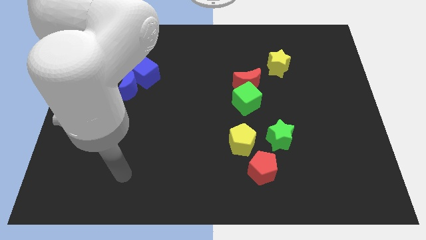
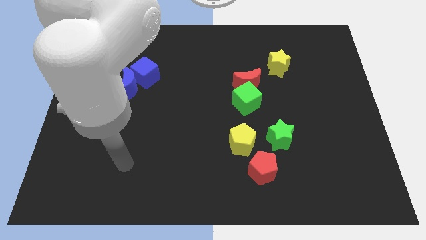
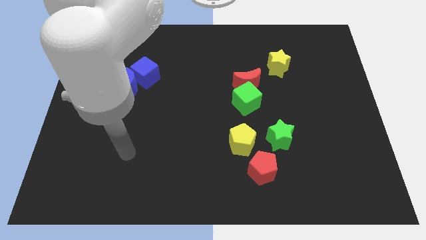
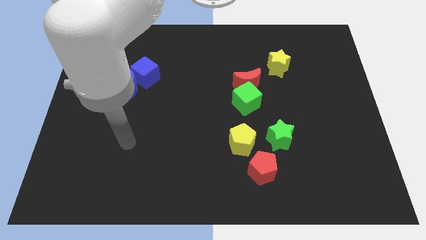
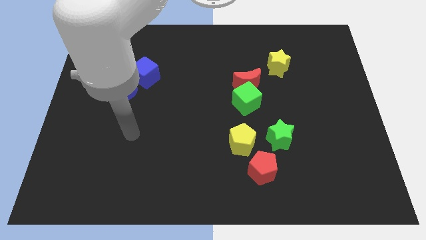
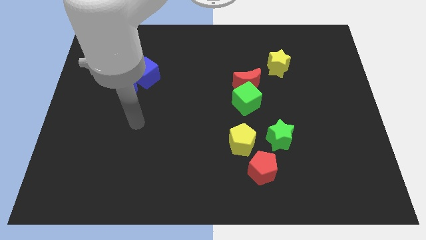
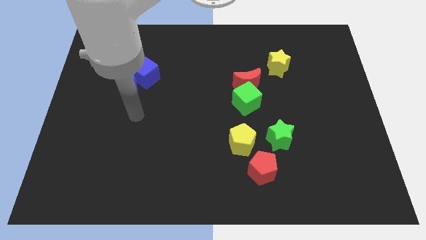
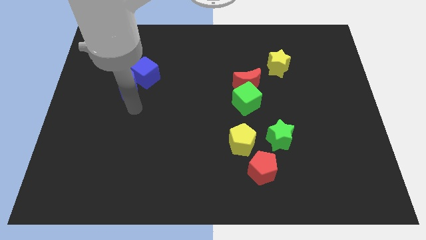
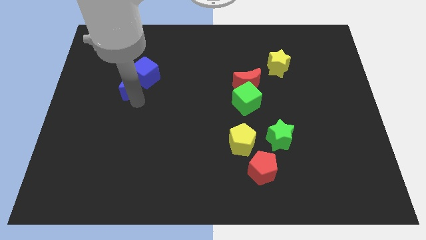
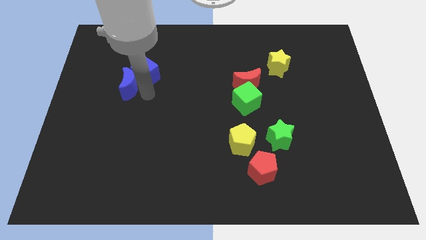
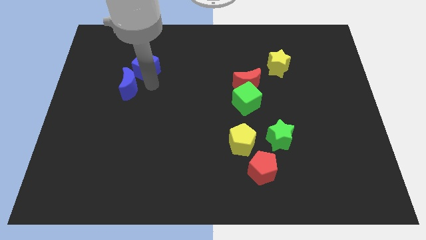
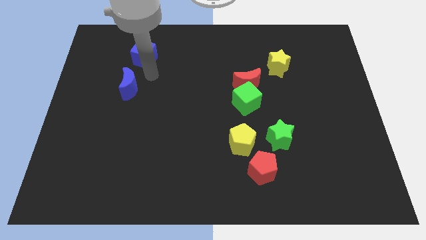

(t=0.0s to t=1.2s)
separate the blue moon from the blue cube

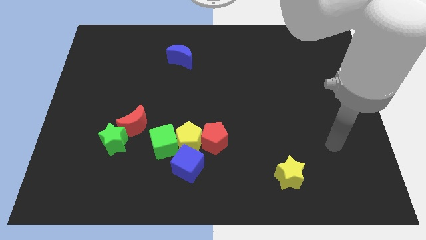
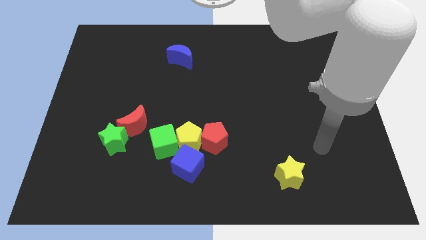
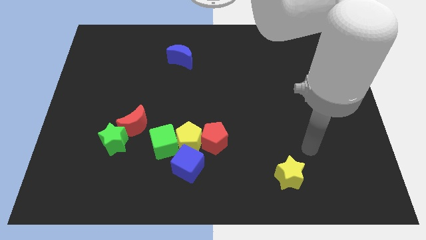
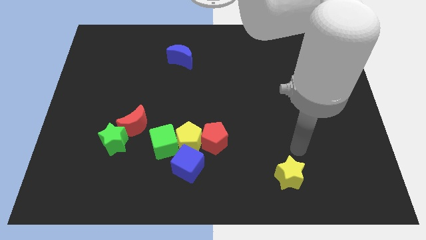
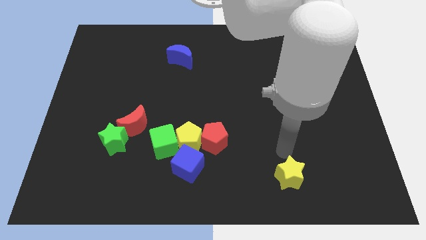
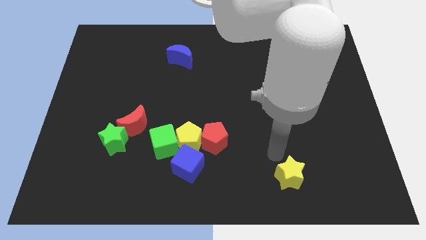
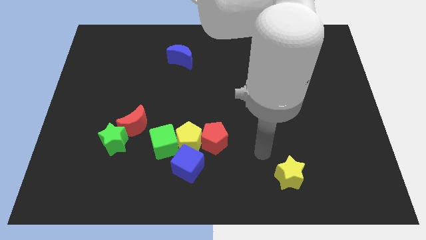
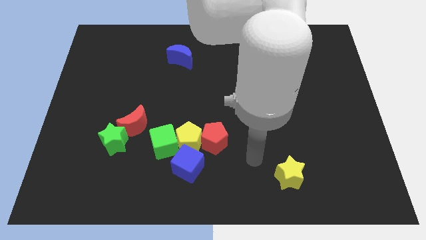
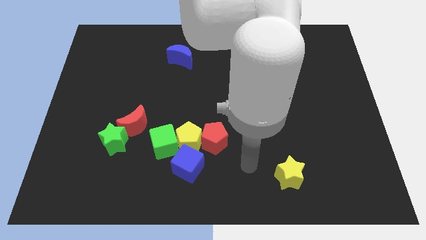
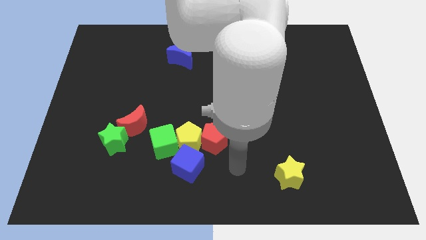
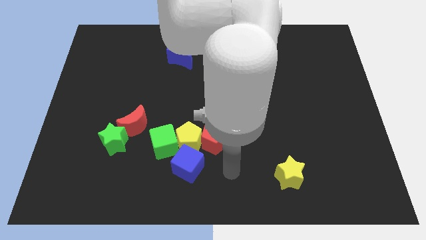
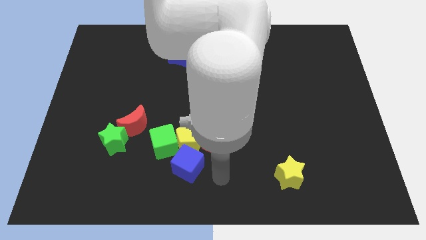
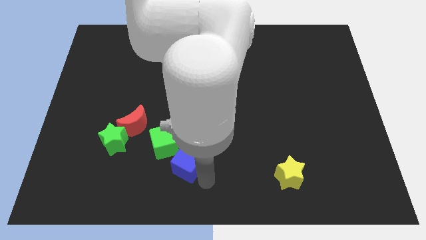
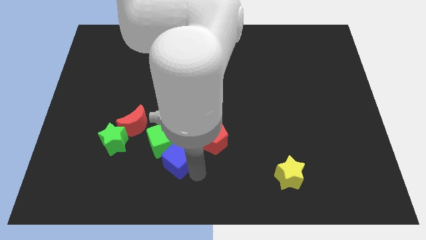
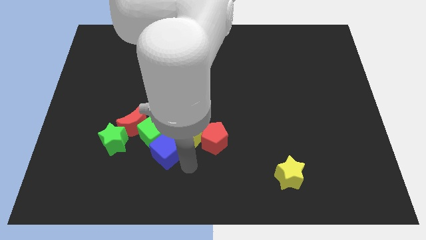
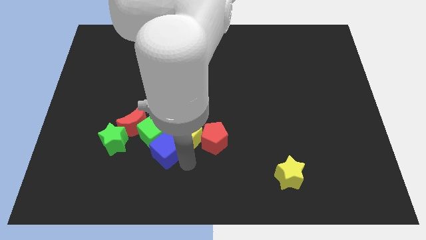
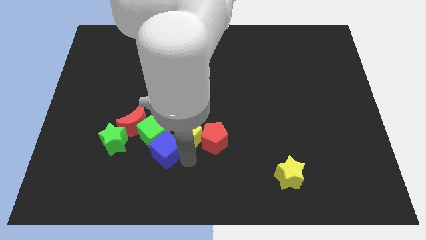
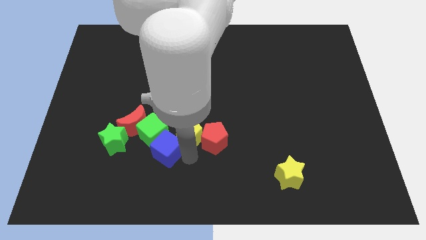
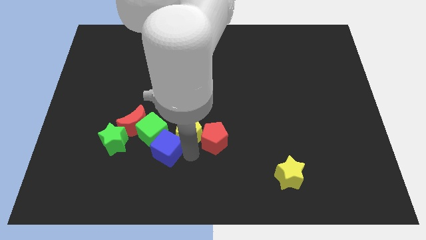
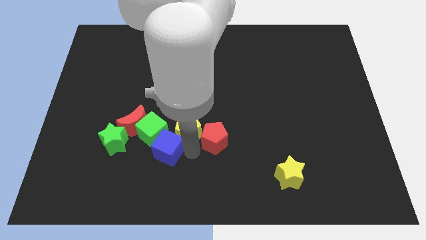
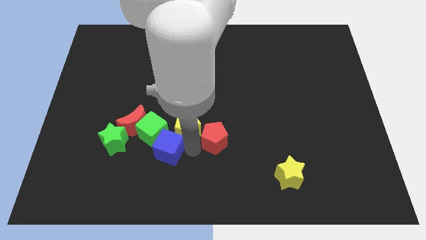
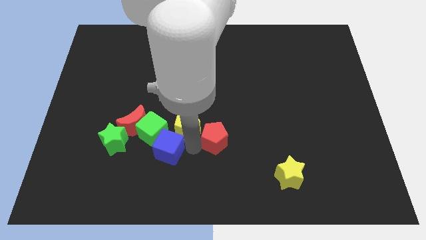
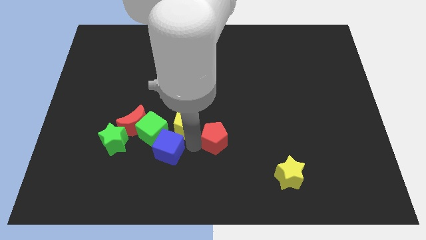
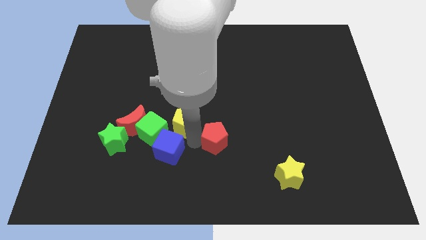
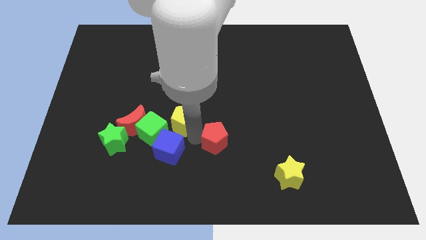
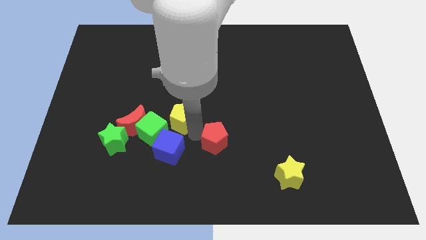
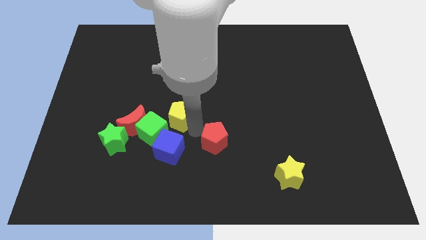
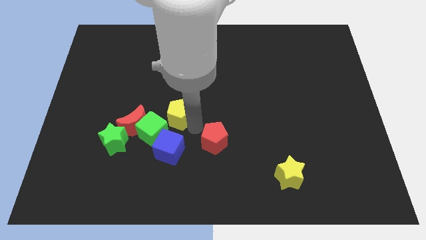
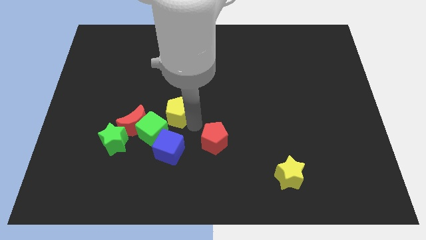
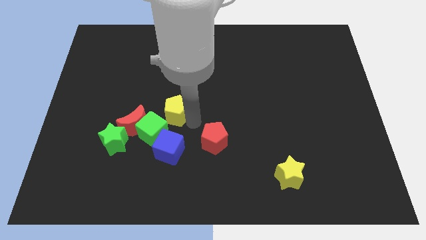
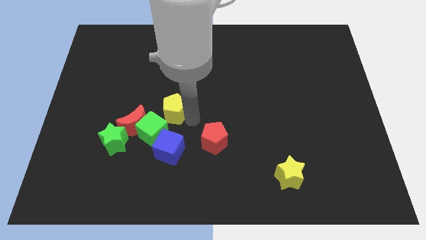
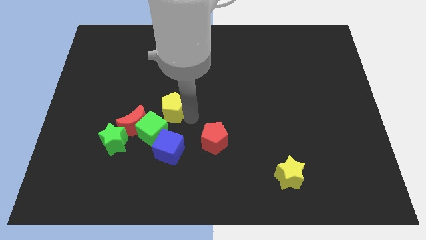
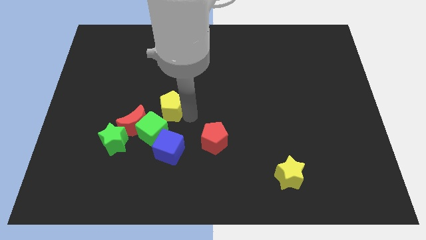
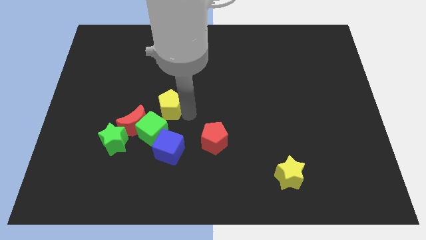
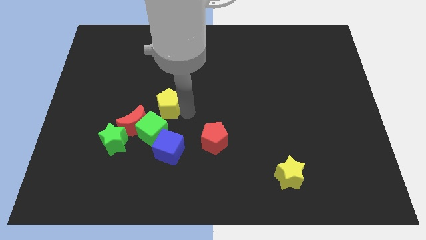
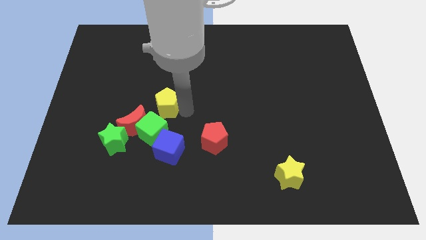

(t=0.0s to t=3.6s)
move the yellow pentagon away from the red pentagon, green cube, and blue cube

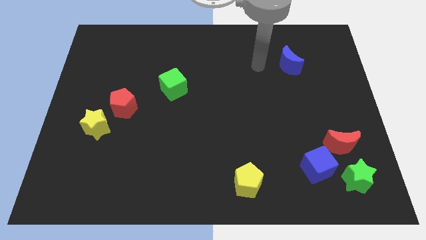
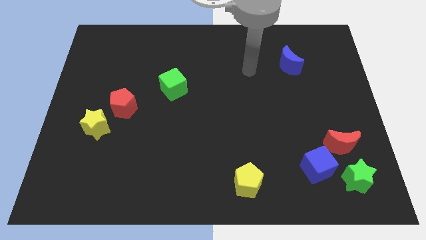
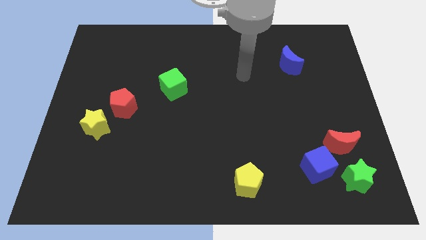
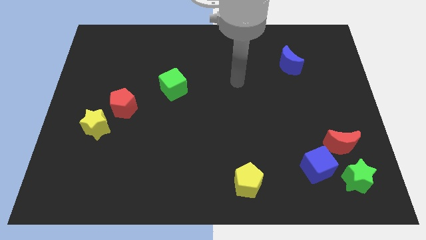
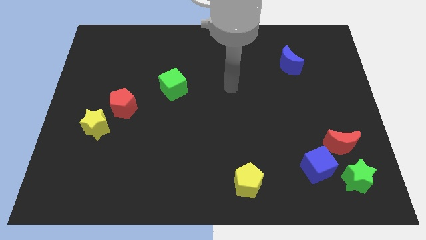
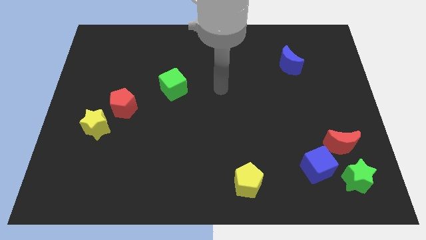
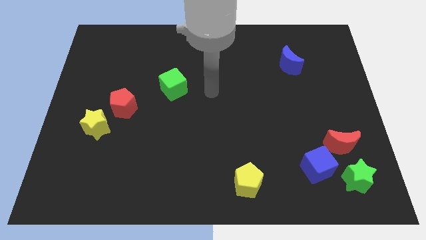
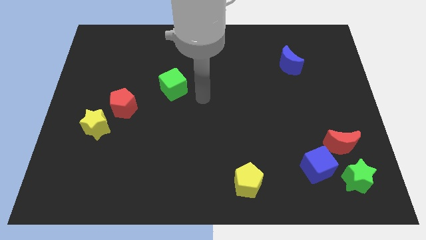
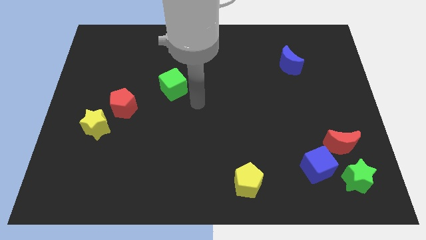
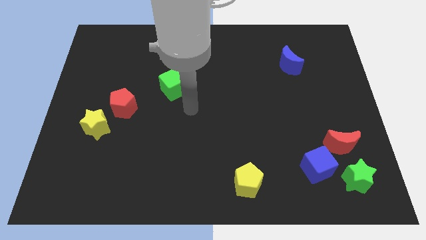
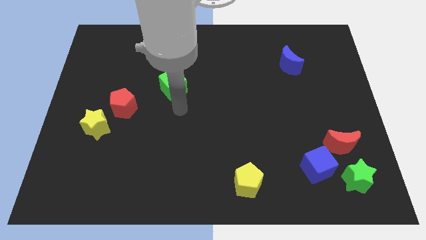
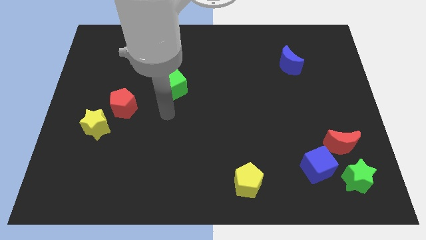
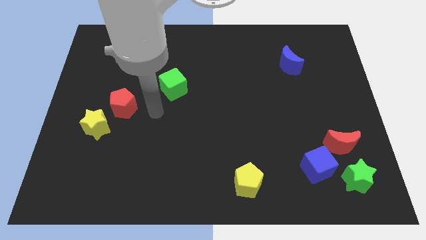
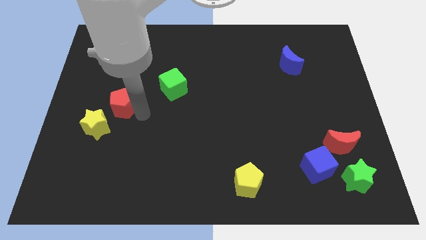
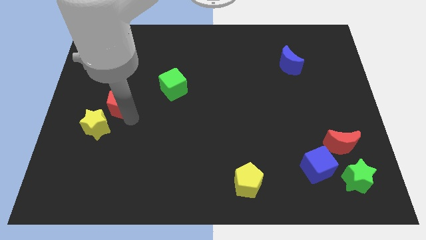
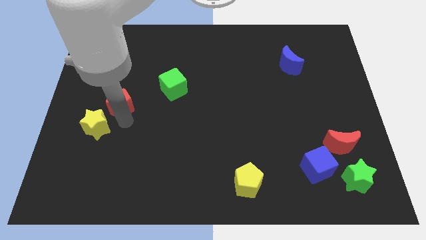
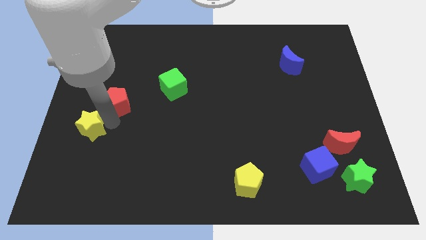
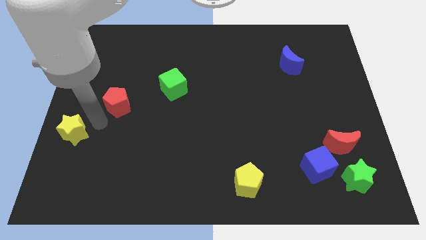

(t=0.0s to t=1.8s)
separate the red pentagon from the yellow star

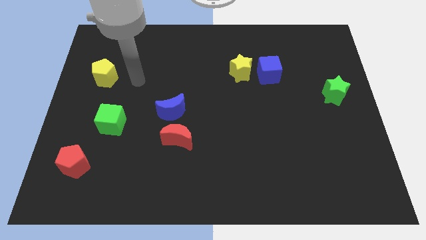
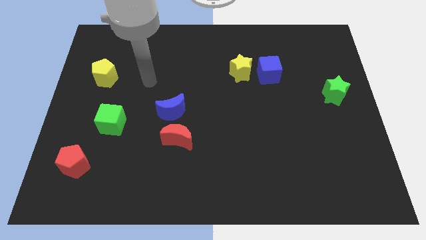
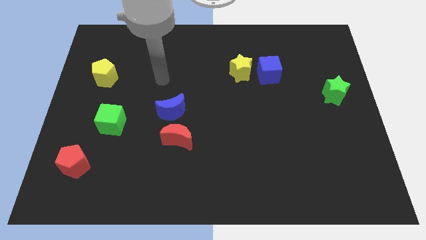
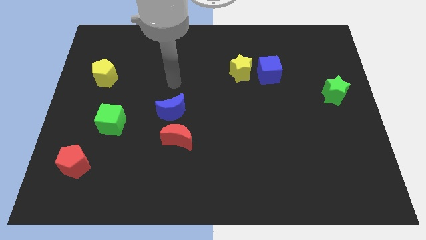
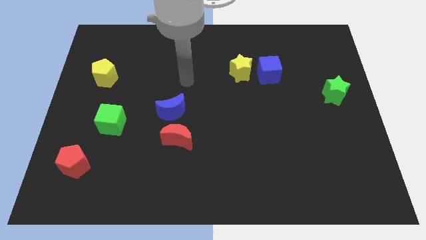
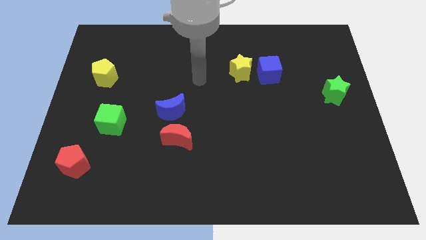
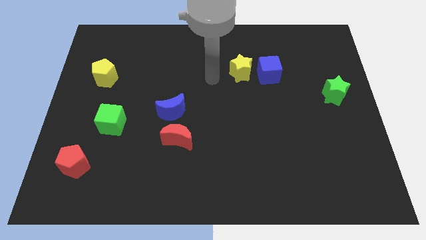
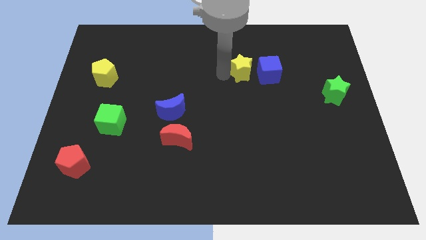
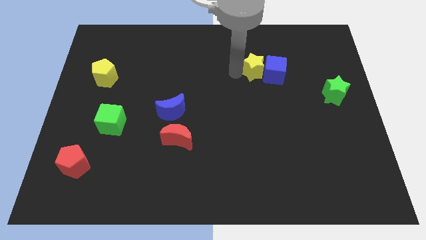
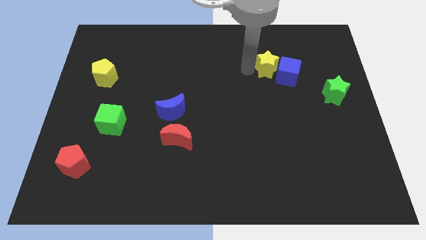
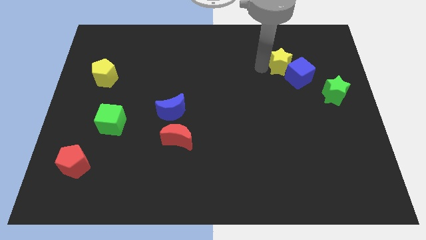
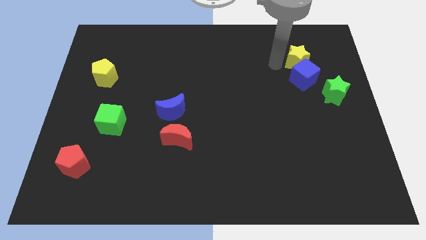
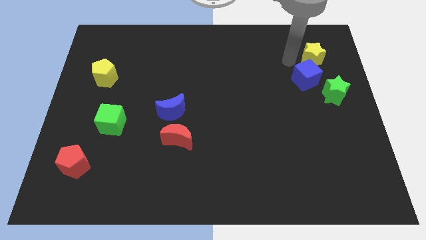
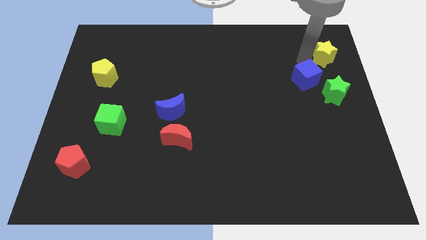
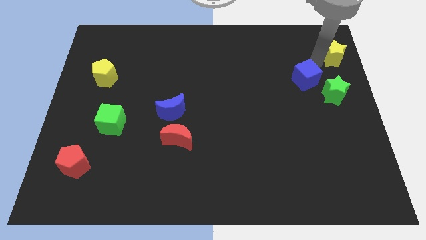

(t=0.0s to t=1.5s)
move the blue cube away from the yellow star

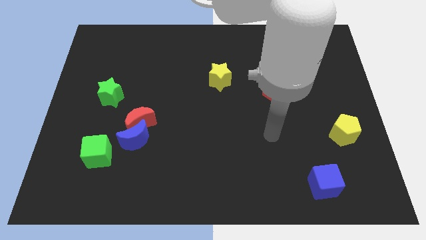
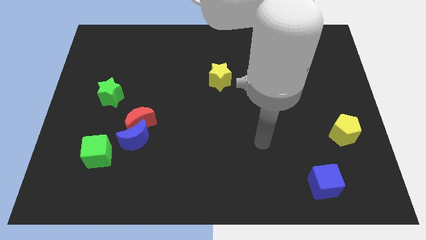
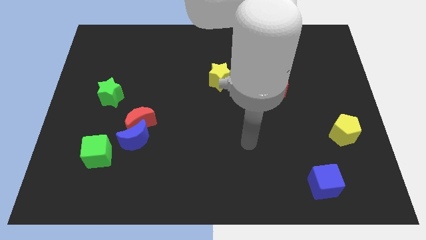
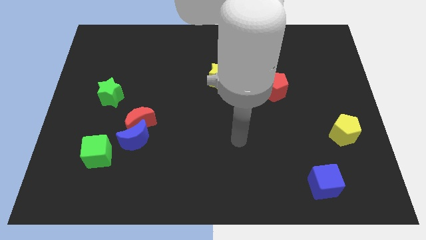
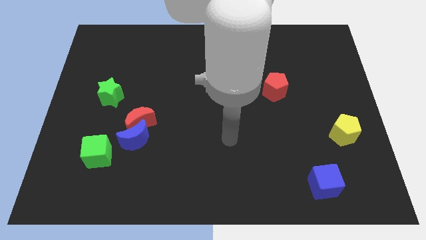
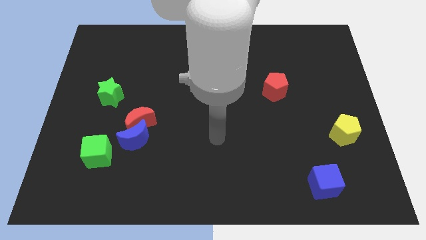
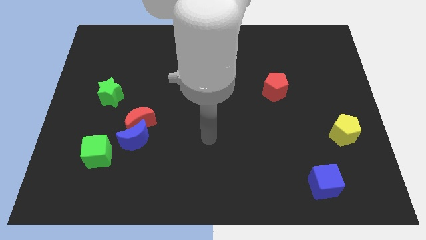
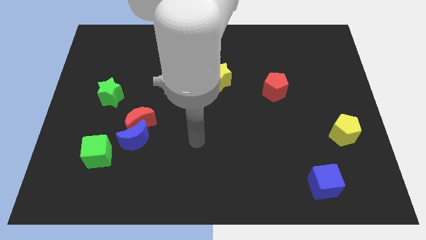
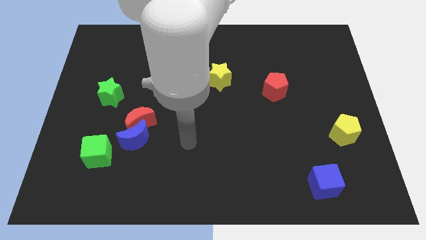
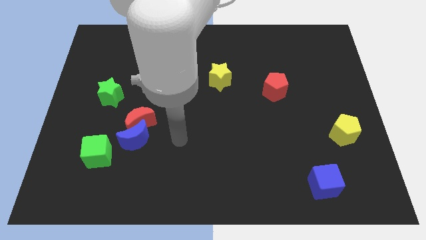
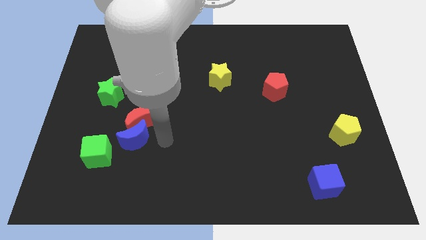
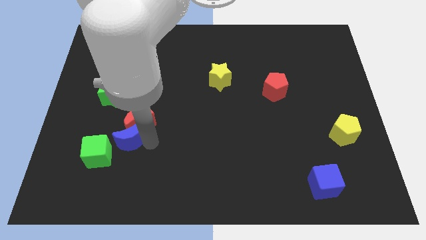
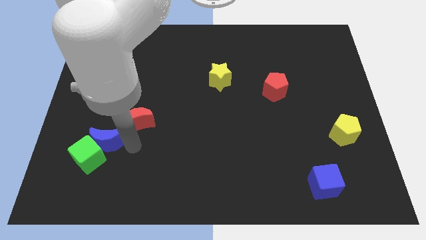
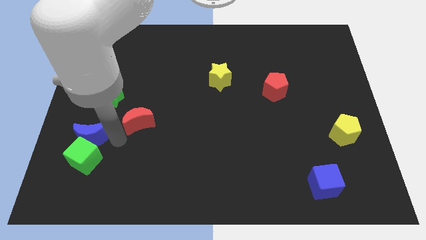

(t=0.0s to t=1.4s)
pull the red moon apart from the blue moon
